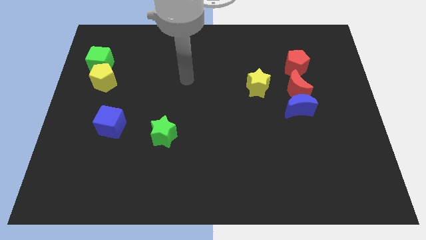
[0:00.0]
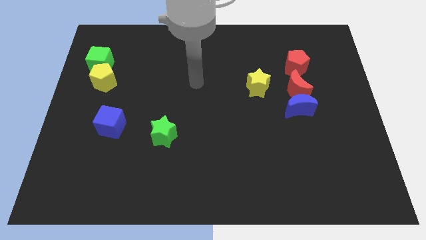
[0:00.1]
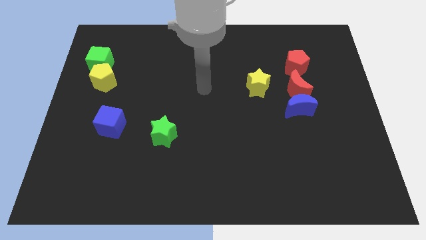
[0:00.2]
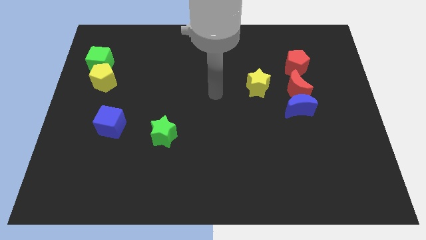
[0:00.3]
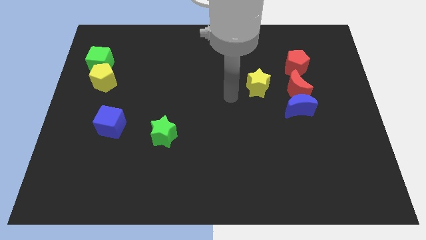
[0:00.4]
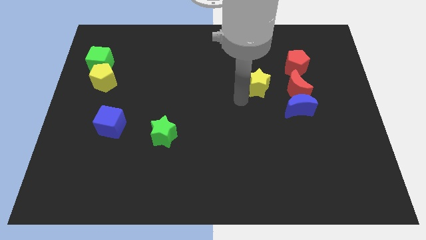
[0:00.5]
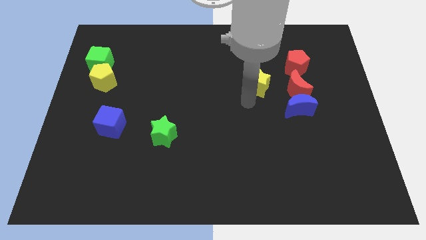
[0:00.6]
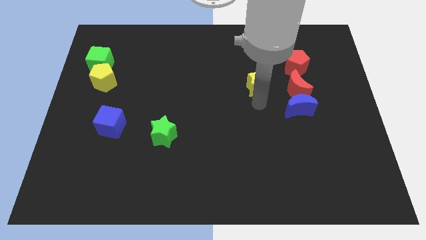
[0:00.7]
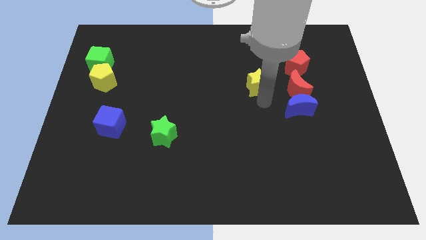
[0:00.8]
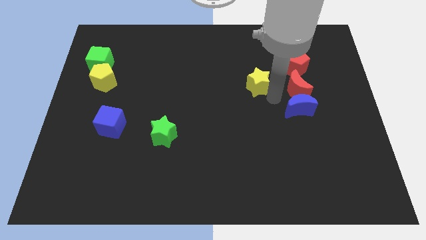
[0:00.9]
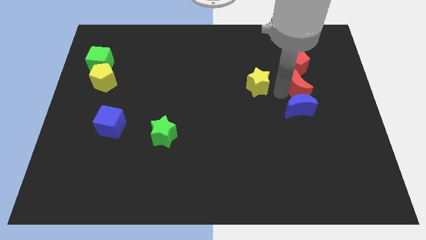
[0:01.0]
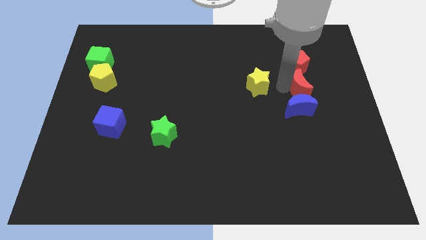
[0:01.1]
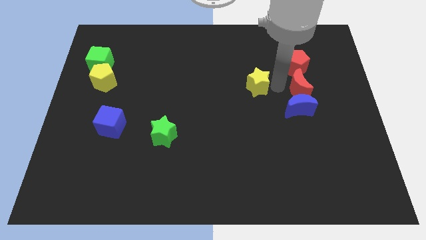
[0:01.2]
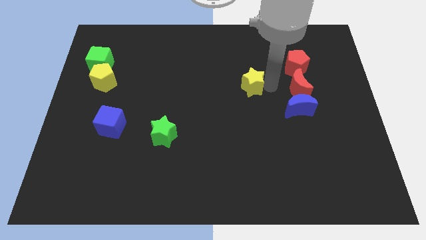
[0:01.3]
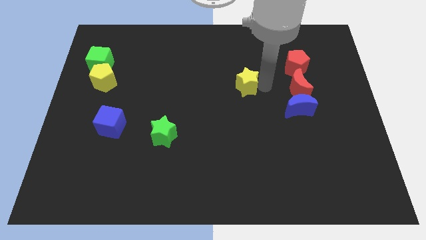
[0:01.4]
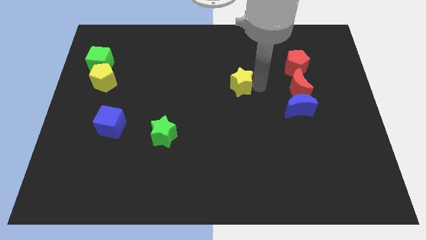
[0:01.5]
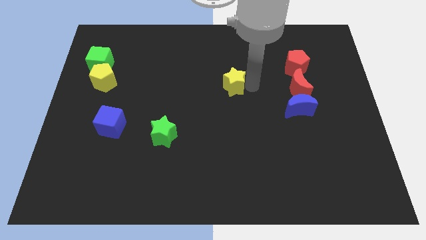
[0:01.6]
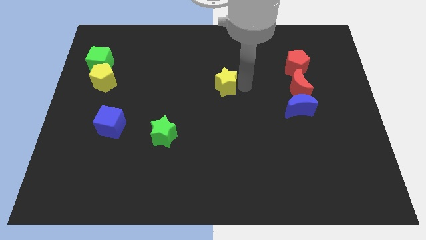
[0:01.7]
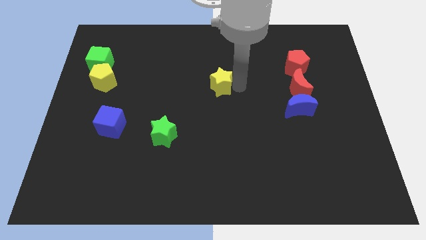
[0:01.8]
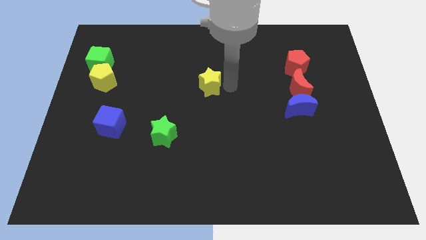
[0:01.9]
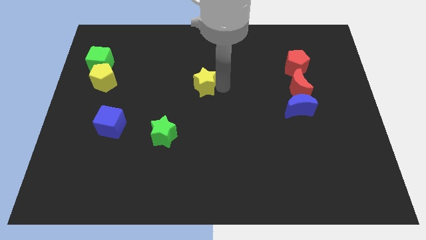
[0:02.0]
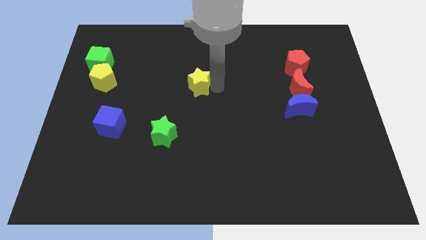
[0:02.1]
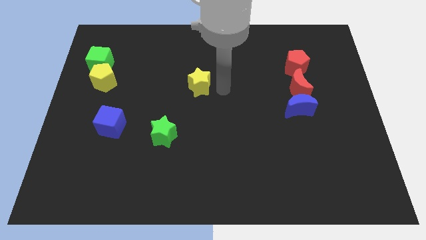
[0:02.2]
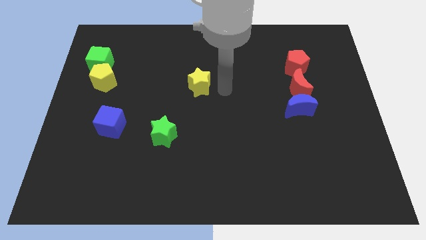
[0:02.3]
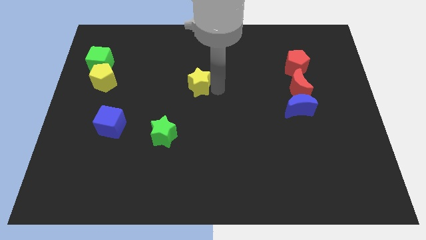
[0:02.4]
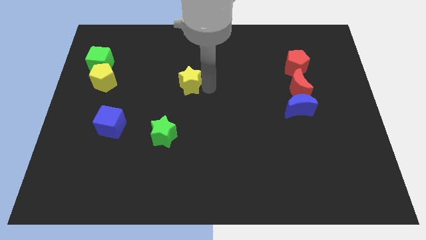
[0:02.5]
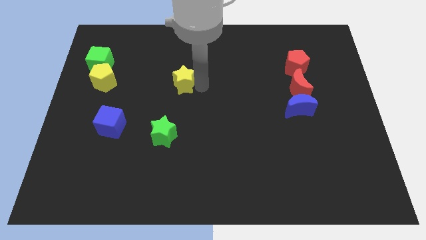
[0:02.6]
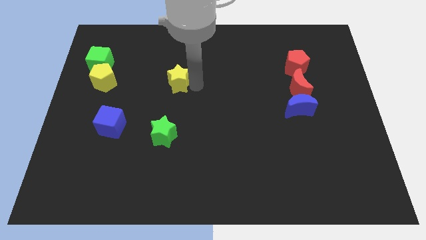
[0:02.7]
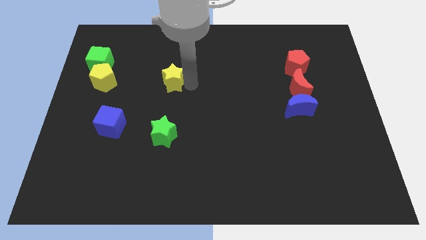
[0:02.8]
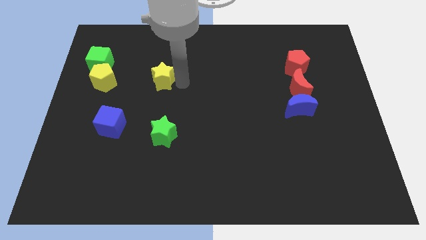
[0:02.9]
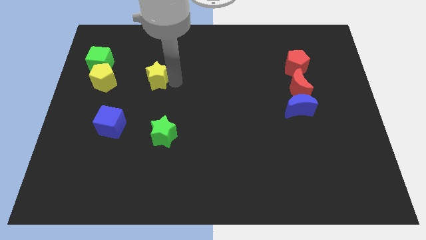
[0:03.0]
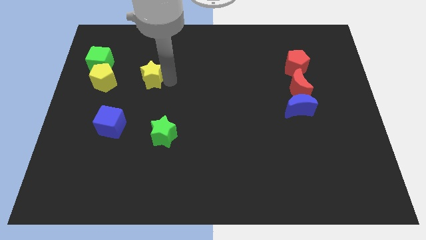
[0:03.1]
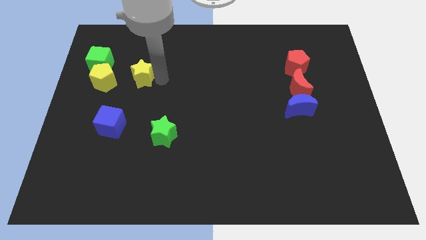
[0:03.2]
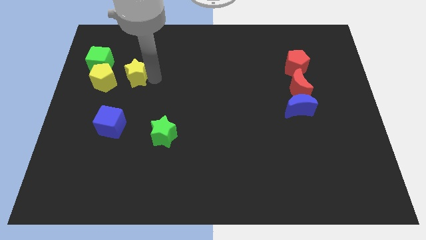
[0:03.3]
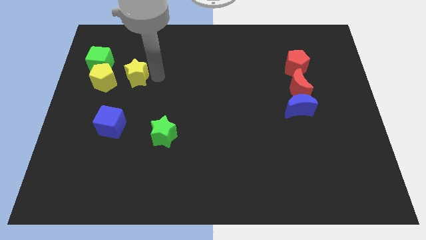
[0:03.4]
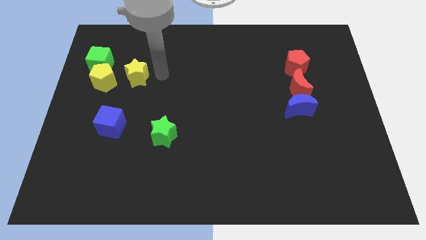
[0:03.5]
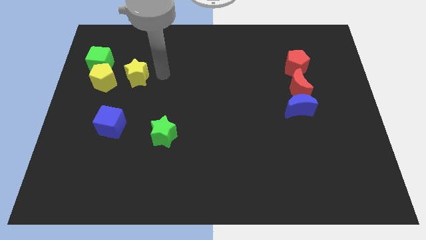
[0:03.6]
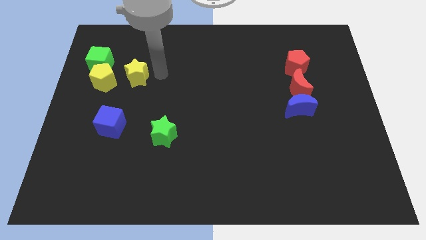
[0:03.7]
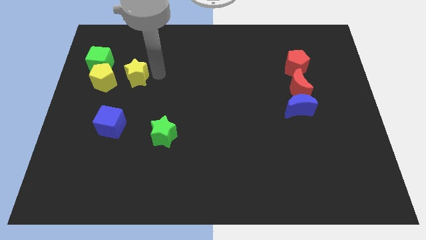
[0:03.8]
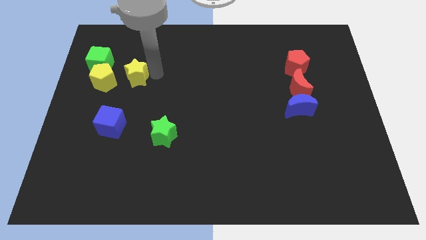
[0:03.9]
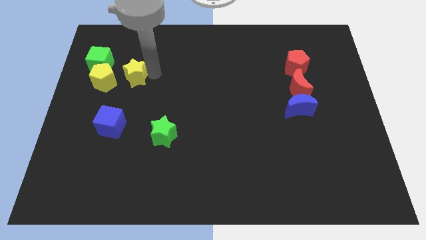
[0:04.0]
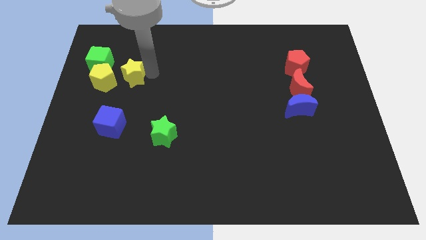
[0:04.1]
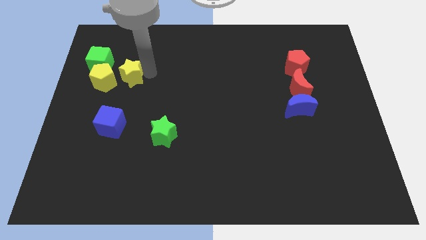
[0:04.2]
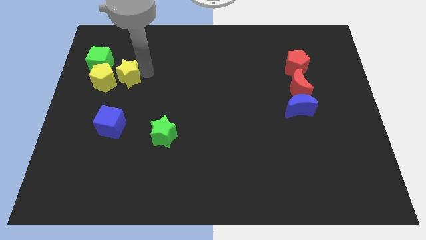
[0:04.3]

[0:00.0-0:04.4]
slide the yellow star to the yellow pentagon

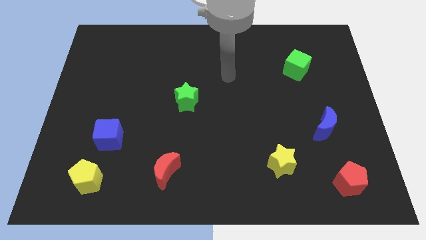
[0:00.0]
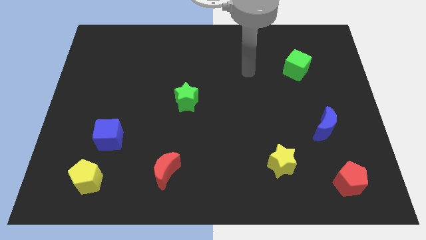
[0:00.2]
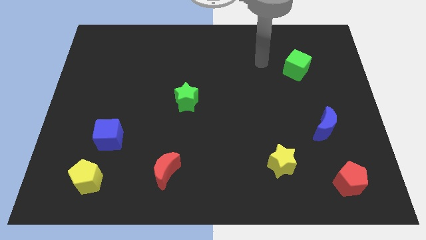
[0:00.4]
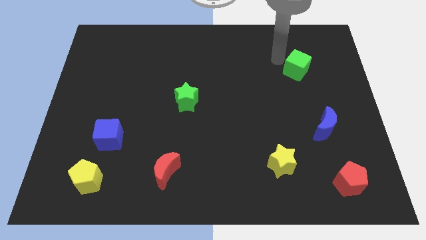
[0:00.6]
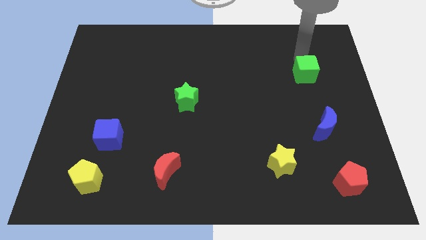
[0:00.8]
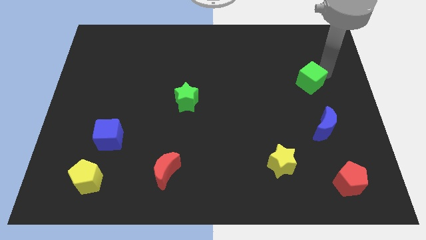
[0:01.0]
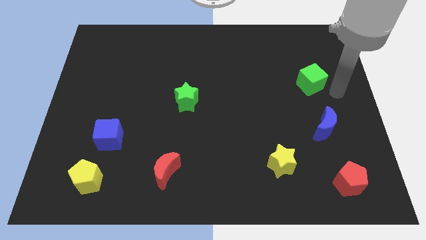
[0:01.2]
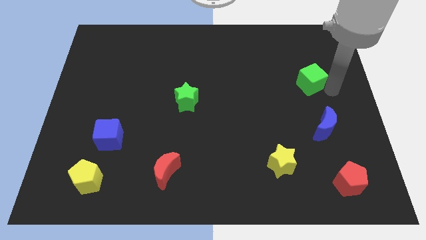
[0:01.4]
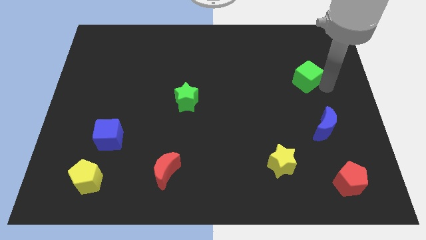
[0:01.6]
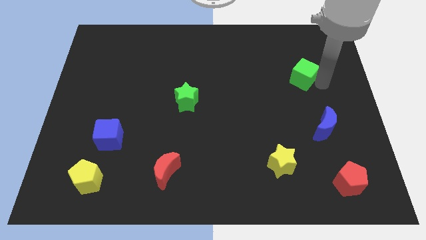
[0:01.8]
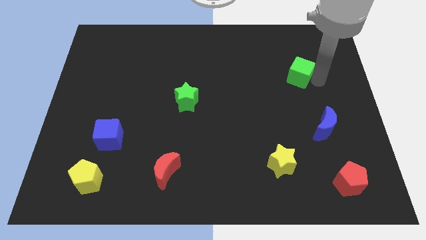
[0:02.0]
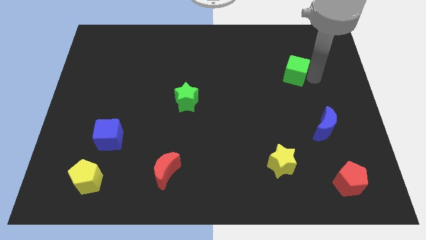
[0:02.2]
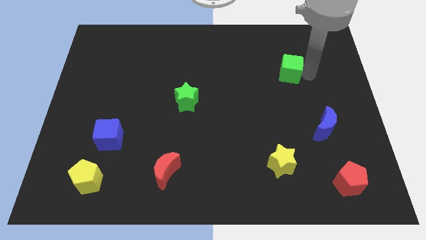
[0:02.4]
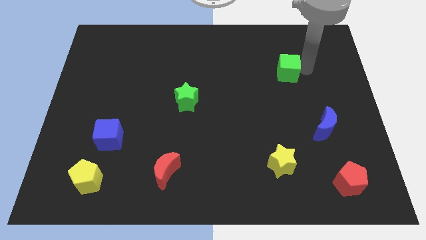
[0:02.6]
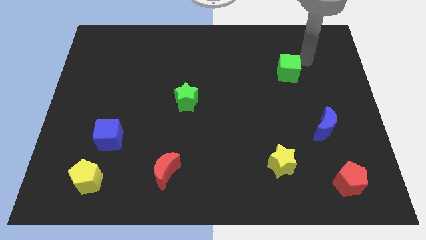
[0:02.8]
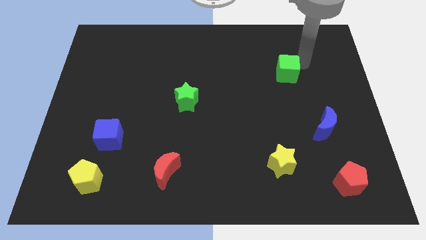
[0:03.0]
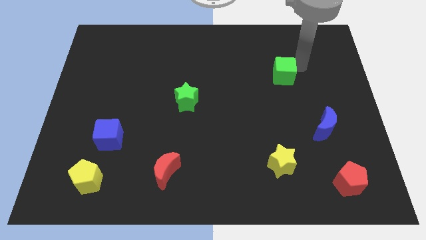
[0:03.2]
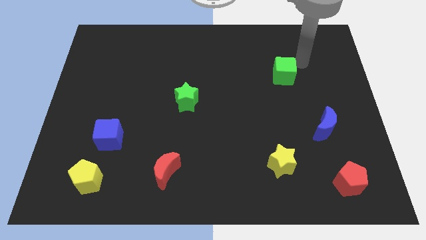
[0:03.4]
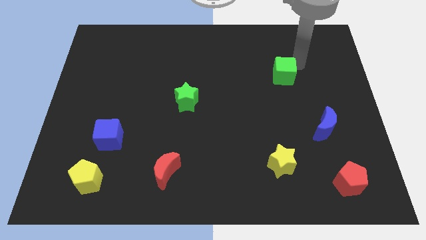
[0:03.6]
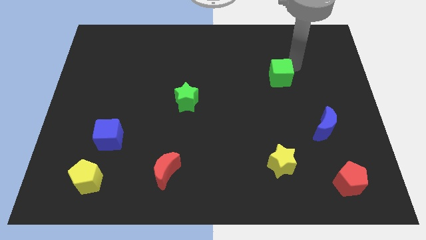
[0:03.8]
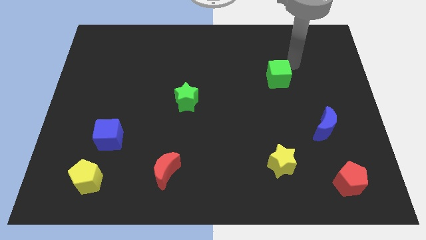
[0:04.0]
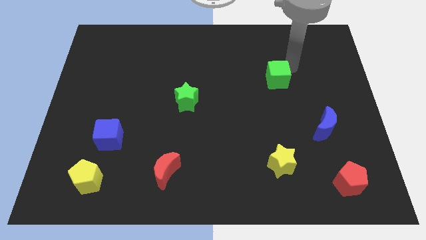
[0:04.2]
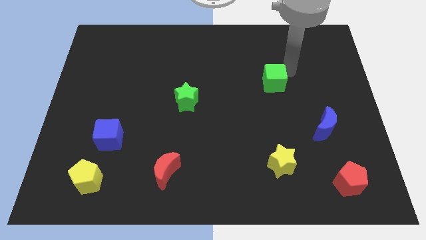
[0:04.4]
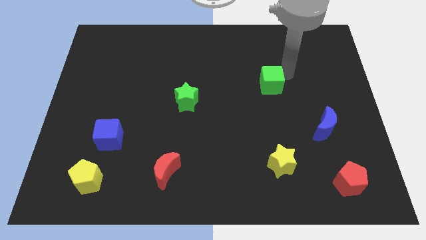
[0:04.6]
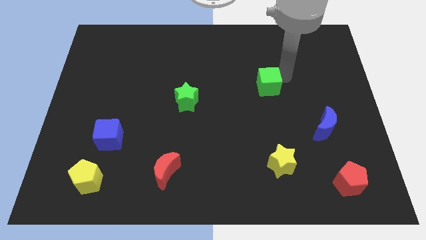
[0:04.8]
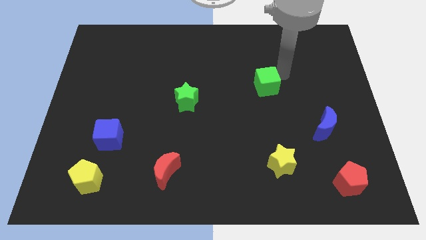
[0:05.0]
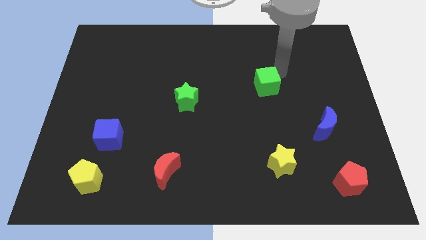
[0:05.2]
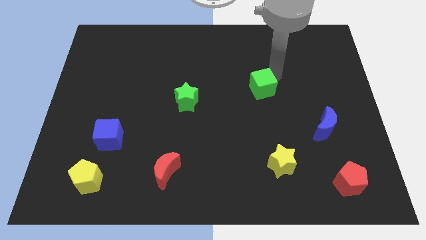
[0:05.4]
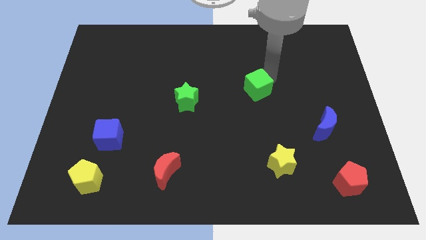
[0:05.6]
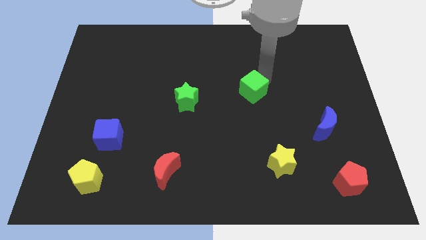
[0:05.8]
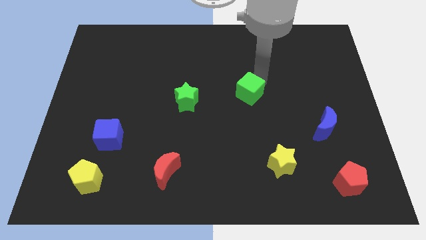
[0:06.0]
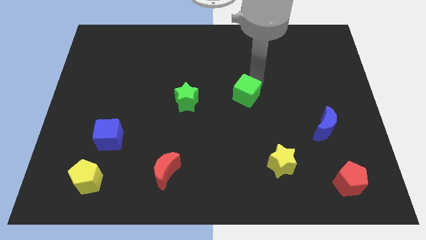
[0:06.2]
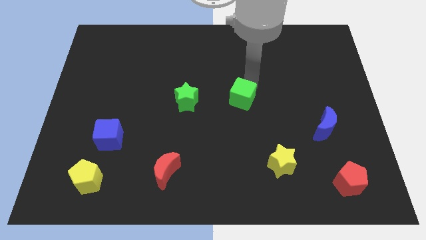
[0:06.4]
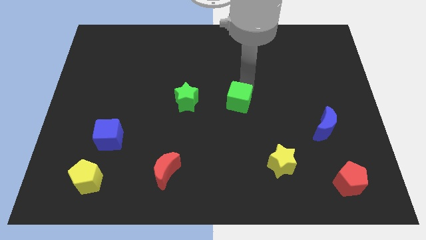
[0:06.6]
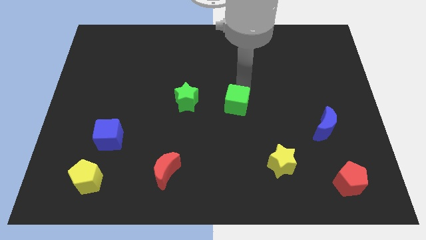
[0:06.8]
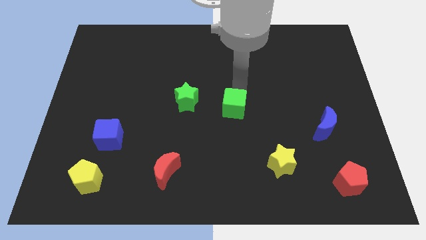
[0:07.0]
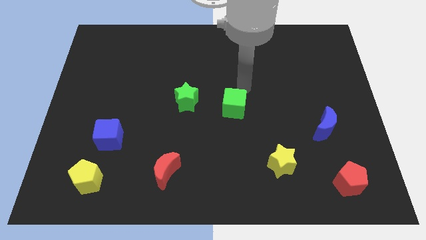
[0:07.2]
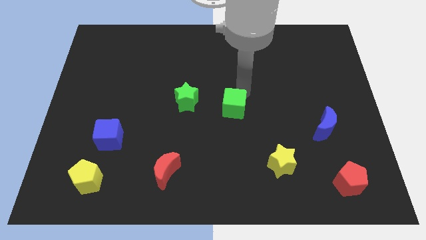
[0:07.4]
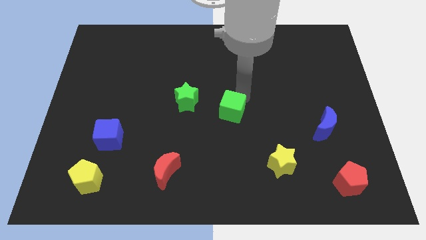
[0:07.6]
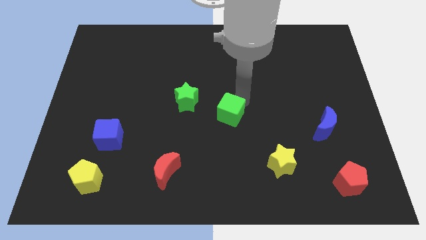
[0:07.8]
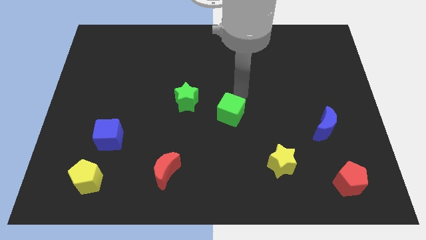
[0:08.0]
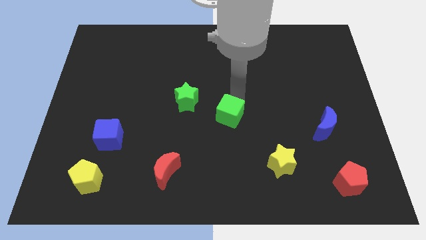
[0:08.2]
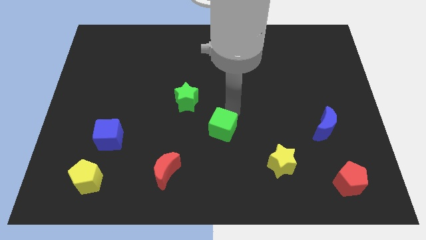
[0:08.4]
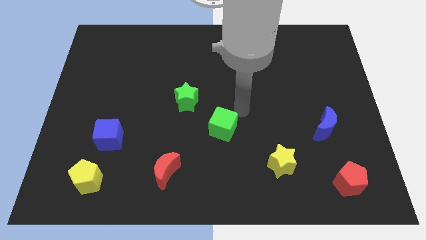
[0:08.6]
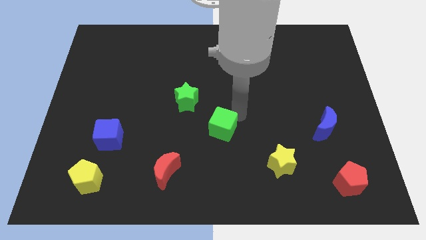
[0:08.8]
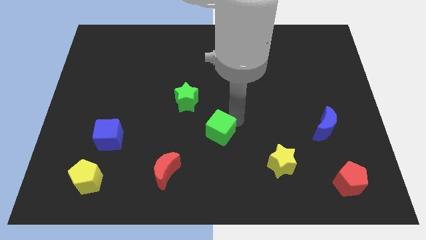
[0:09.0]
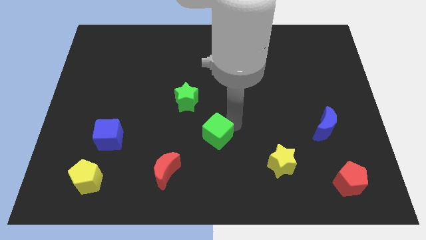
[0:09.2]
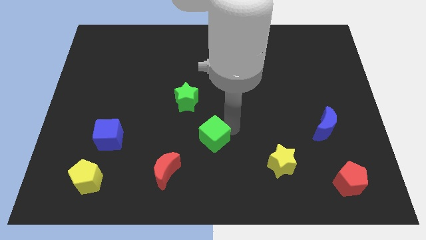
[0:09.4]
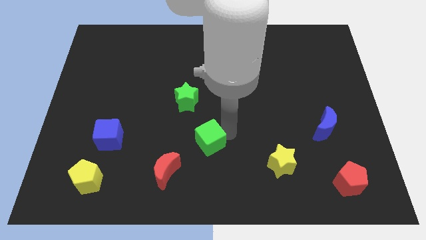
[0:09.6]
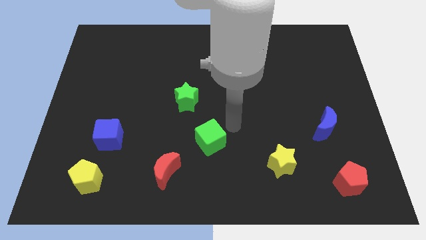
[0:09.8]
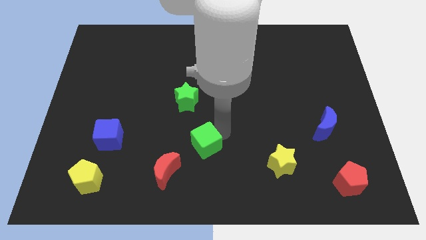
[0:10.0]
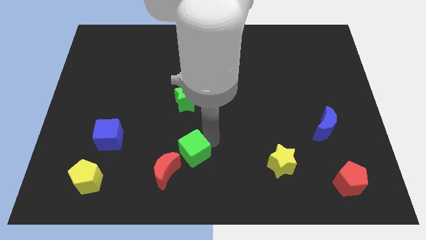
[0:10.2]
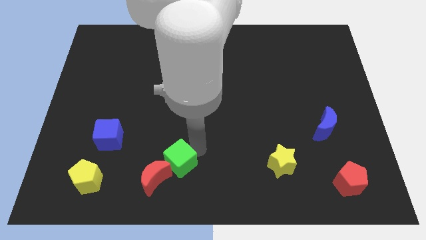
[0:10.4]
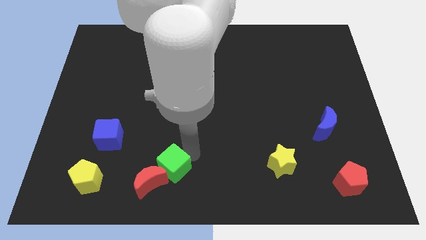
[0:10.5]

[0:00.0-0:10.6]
move the green cube close to the red moon
